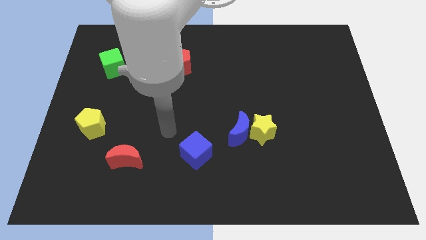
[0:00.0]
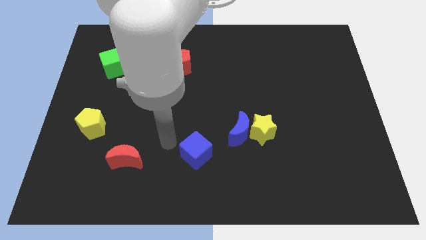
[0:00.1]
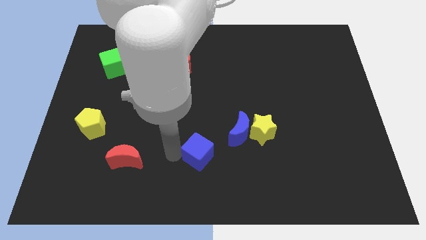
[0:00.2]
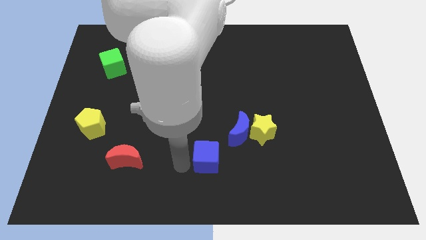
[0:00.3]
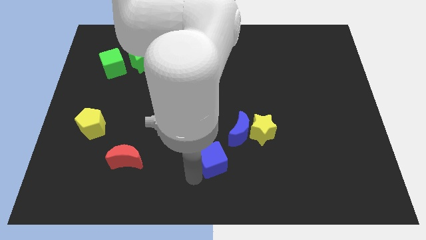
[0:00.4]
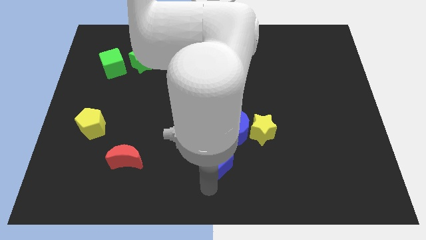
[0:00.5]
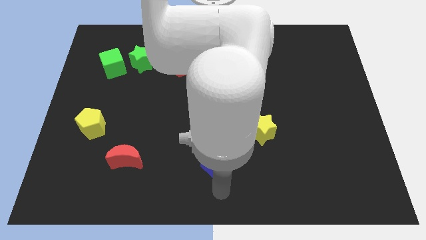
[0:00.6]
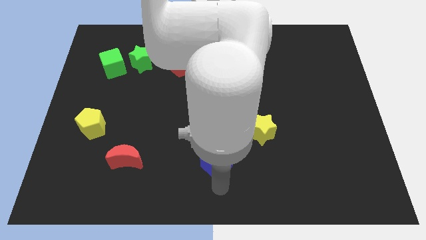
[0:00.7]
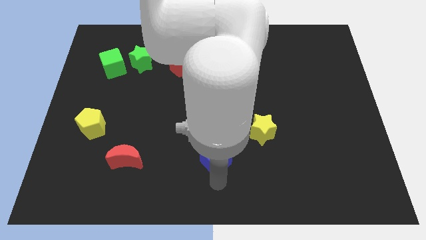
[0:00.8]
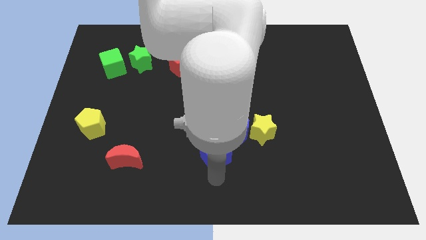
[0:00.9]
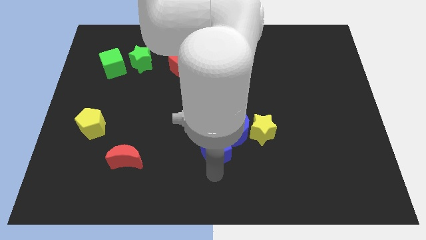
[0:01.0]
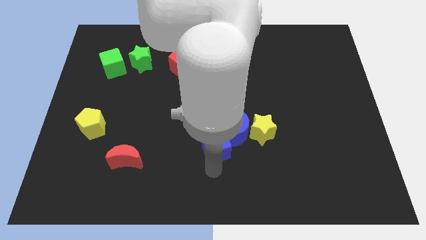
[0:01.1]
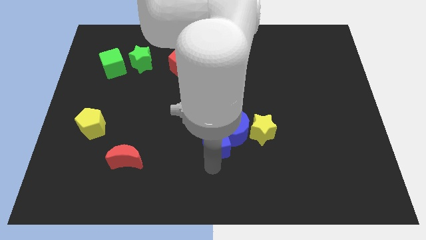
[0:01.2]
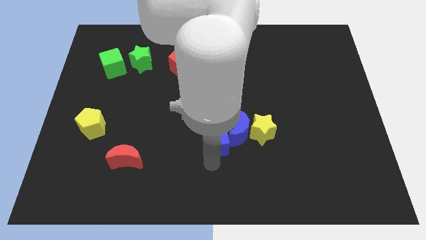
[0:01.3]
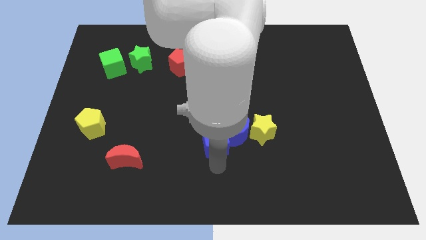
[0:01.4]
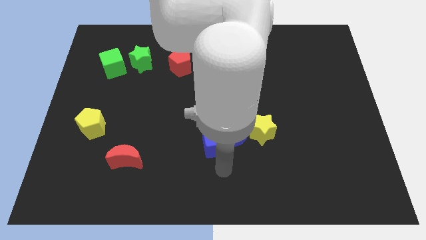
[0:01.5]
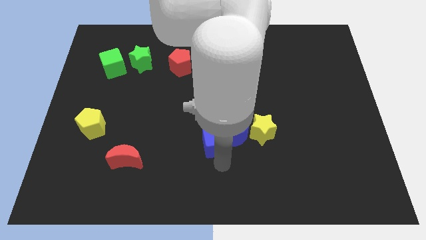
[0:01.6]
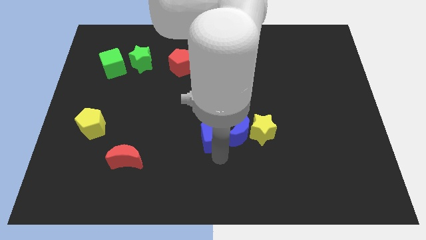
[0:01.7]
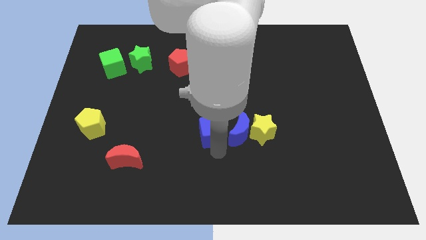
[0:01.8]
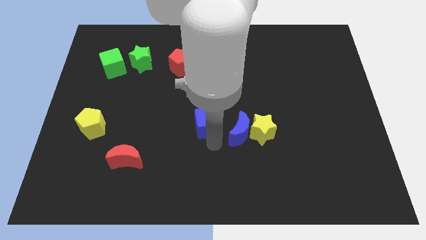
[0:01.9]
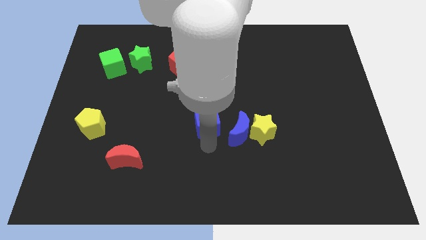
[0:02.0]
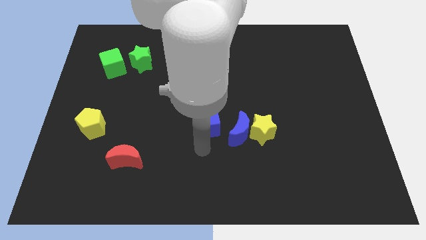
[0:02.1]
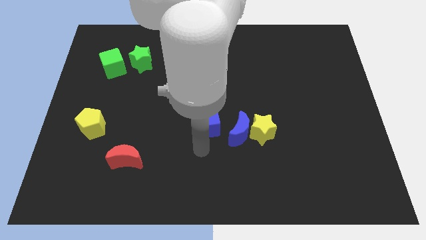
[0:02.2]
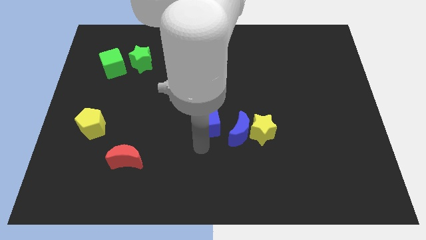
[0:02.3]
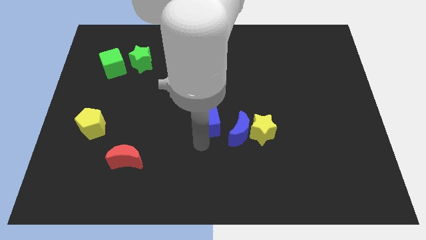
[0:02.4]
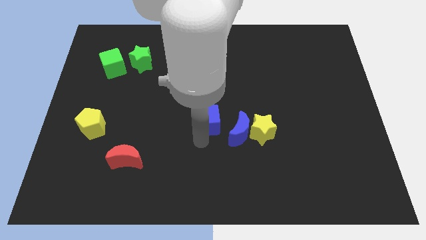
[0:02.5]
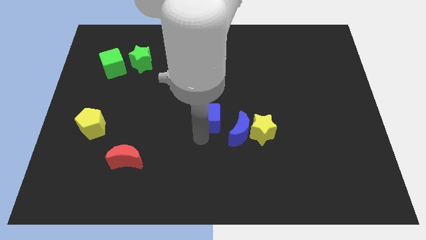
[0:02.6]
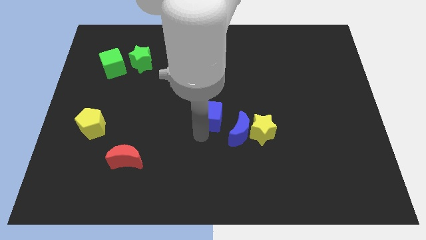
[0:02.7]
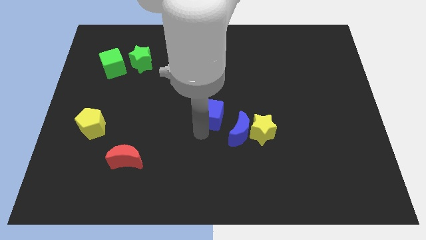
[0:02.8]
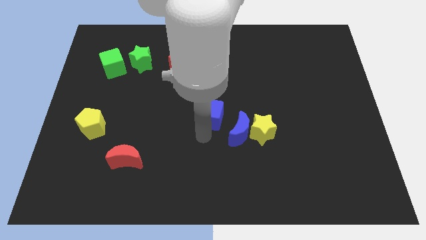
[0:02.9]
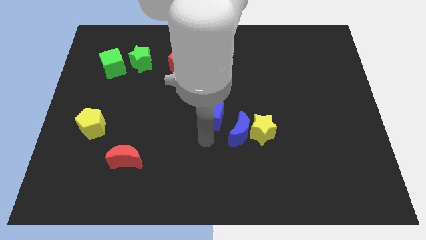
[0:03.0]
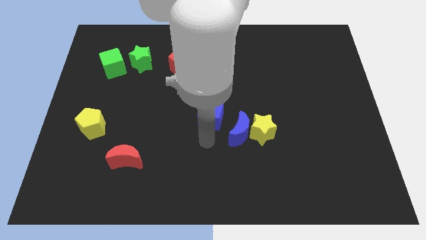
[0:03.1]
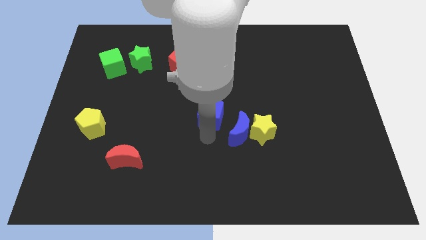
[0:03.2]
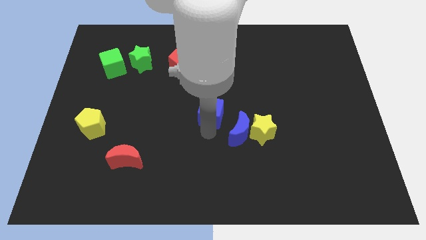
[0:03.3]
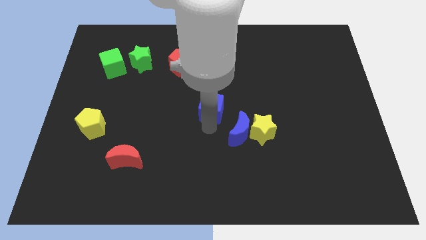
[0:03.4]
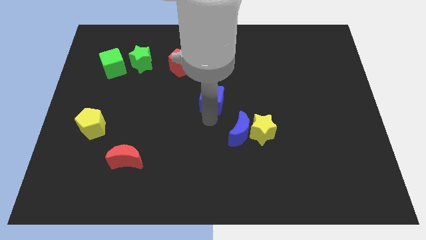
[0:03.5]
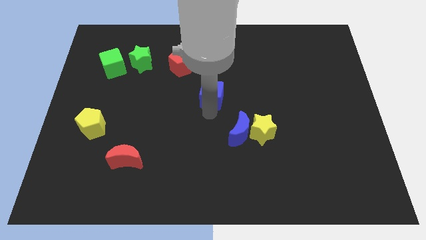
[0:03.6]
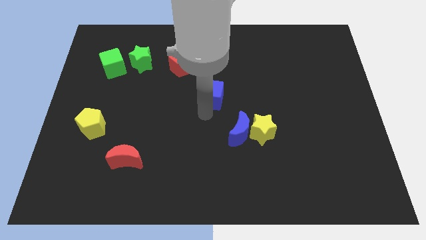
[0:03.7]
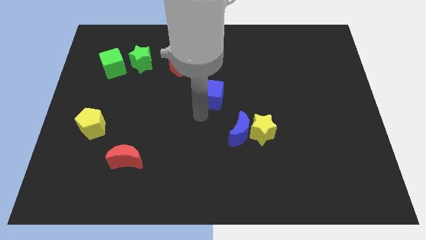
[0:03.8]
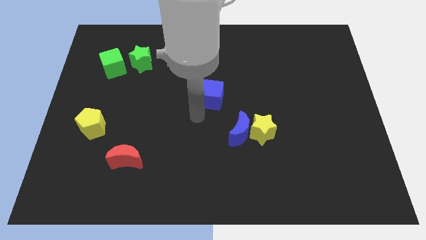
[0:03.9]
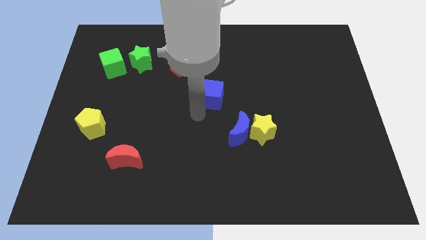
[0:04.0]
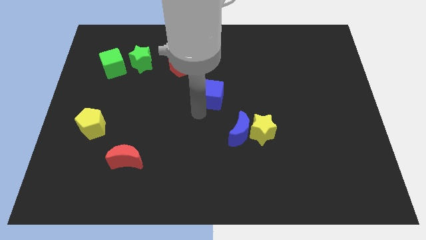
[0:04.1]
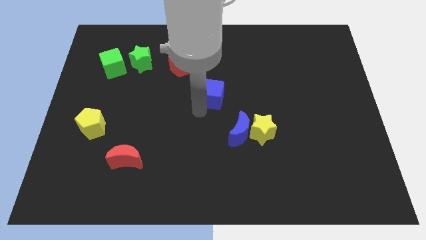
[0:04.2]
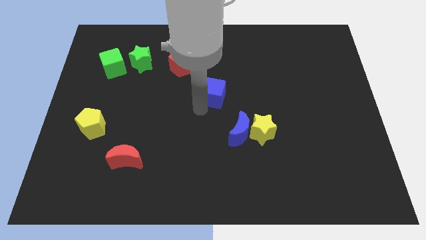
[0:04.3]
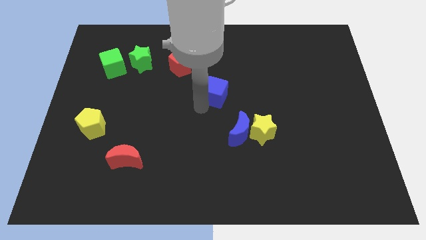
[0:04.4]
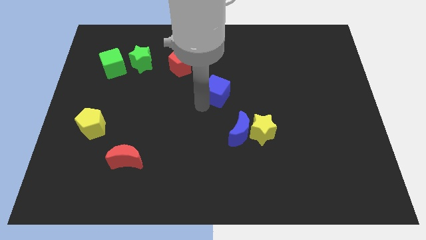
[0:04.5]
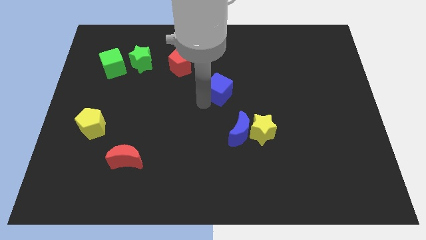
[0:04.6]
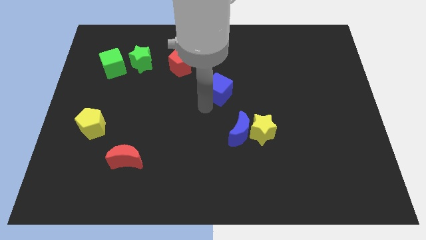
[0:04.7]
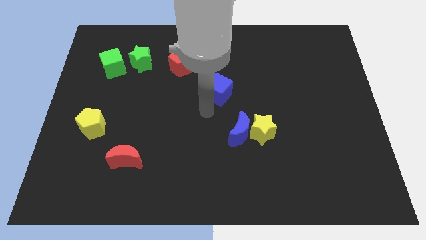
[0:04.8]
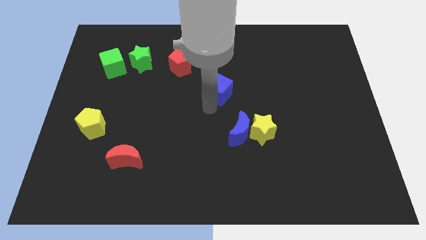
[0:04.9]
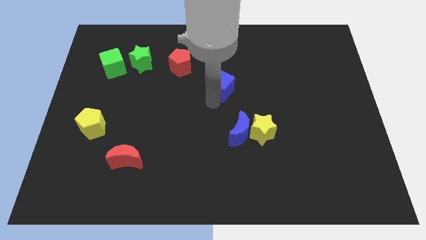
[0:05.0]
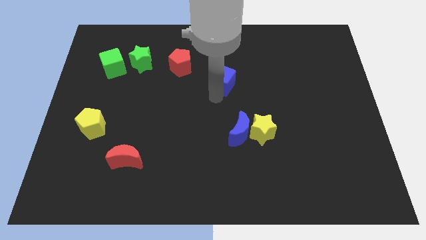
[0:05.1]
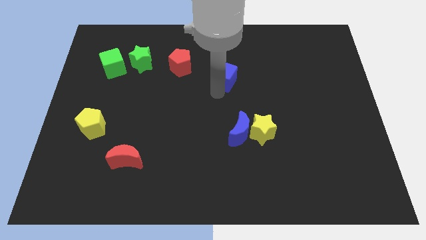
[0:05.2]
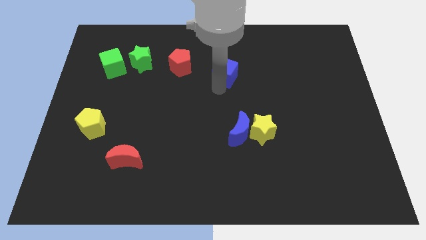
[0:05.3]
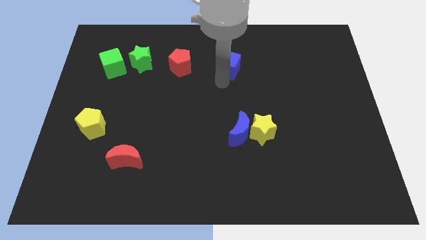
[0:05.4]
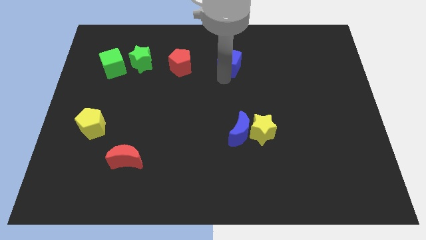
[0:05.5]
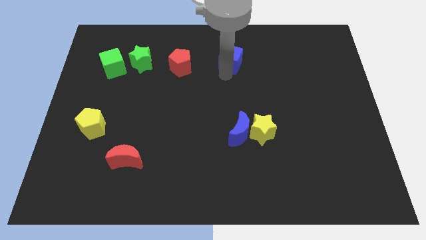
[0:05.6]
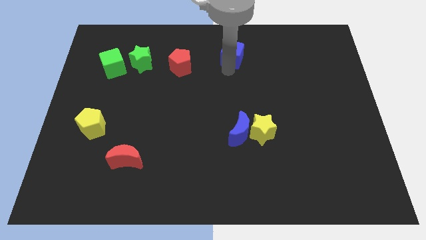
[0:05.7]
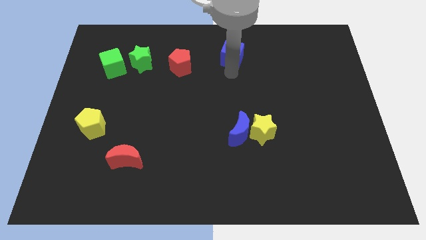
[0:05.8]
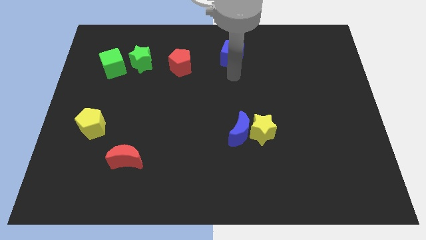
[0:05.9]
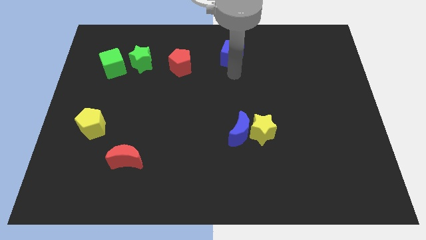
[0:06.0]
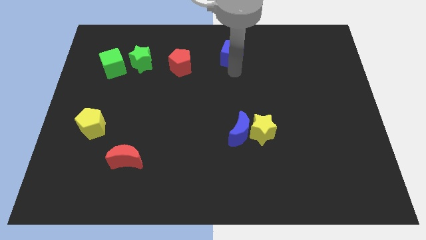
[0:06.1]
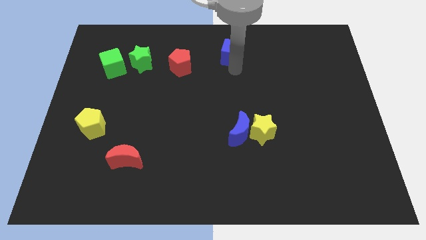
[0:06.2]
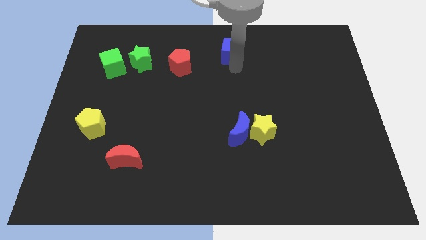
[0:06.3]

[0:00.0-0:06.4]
put the blue cube to the top
